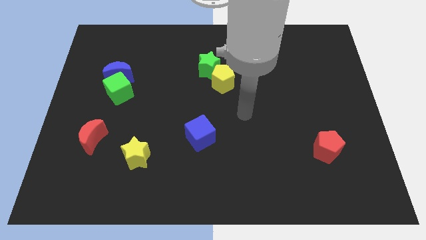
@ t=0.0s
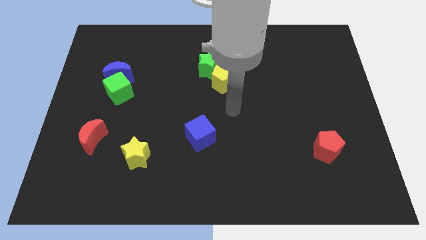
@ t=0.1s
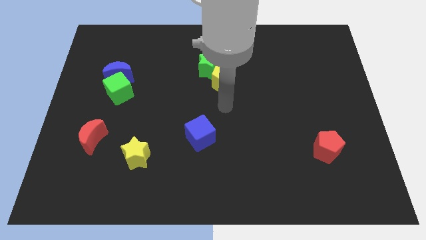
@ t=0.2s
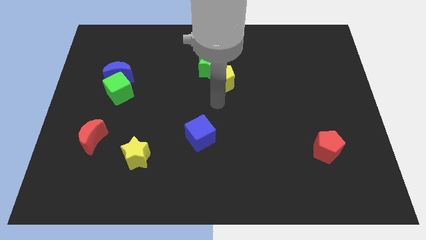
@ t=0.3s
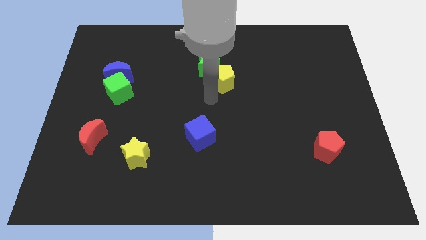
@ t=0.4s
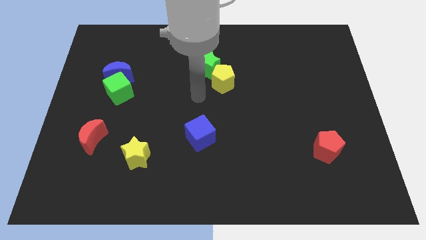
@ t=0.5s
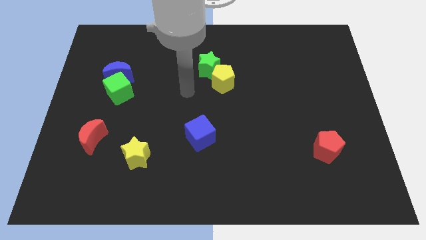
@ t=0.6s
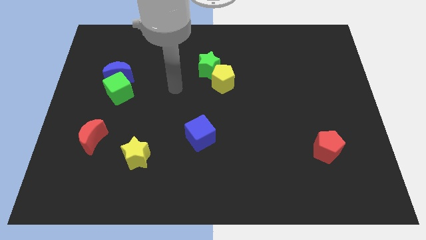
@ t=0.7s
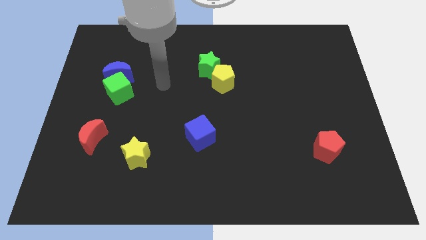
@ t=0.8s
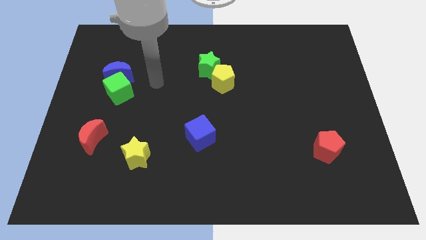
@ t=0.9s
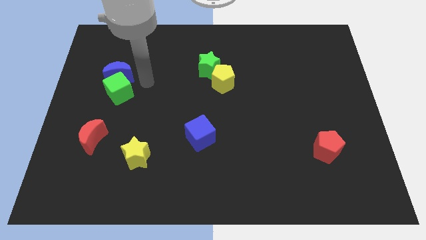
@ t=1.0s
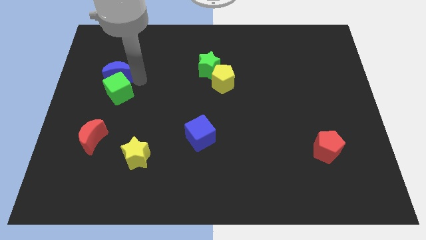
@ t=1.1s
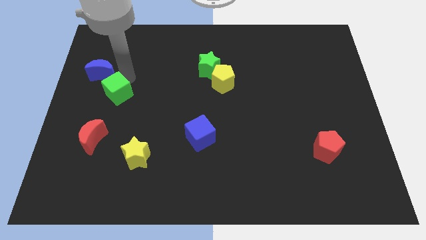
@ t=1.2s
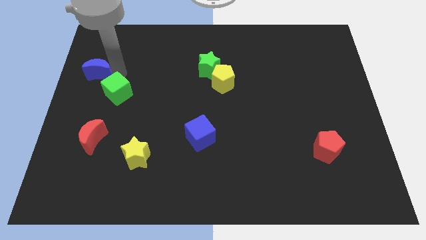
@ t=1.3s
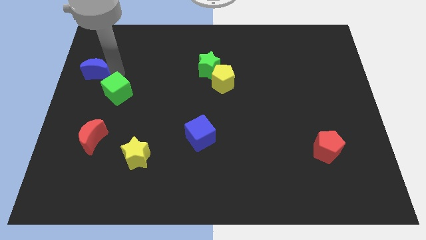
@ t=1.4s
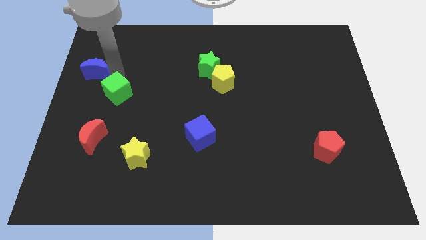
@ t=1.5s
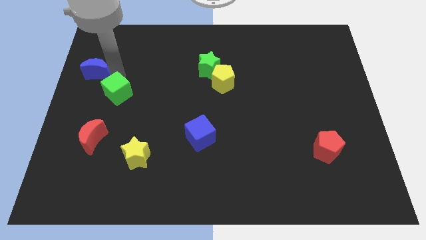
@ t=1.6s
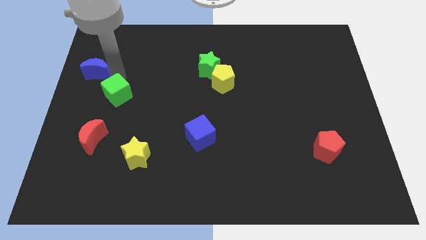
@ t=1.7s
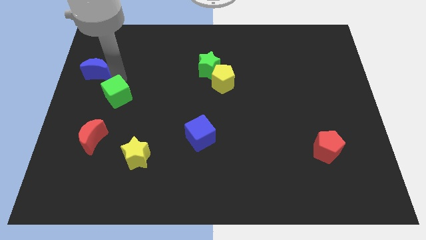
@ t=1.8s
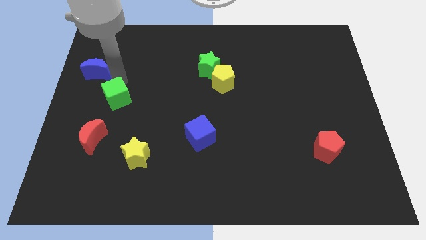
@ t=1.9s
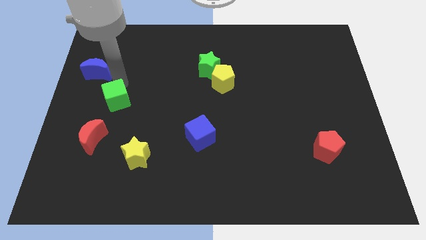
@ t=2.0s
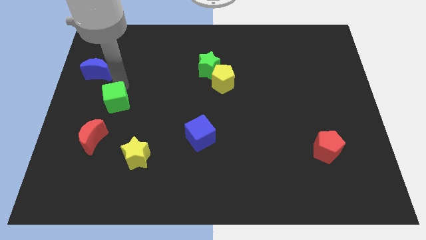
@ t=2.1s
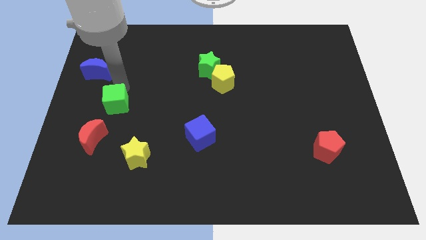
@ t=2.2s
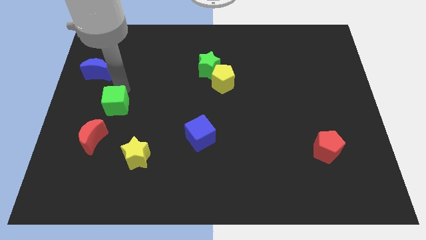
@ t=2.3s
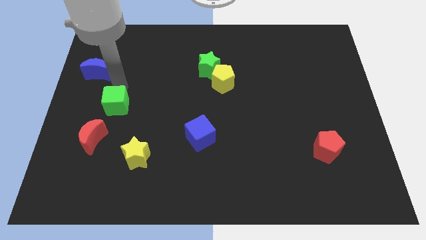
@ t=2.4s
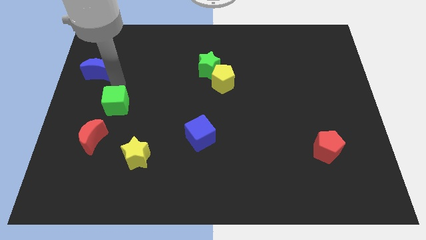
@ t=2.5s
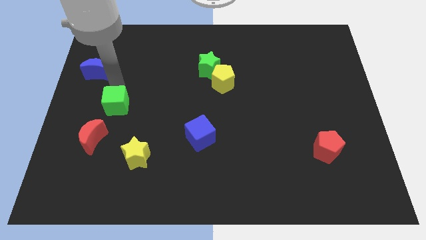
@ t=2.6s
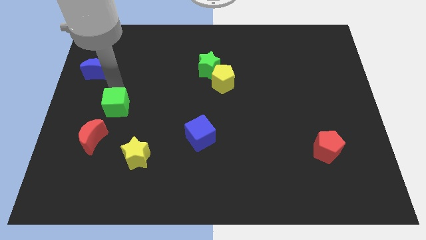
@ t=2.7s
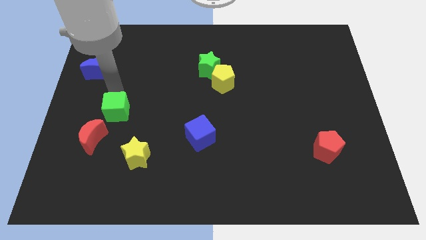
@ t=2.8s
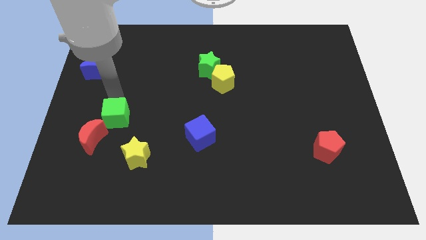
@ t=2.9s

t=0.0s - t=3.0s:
slightly push the green cube down

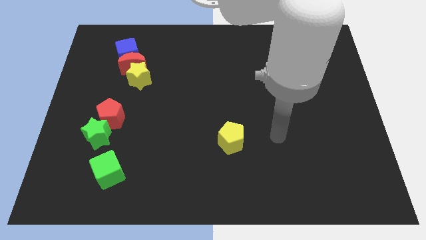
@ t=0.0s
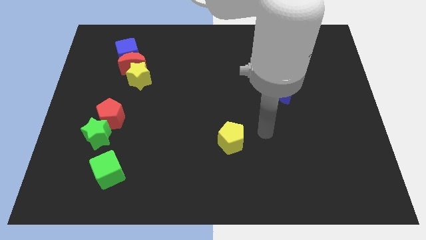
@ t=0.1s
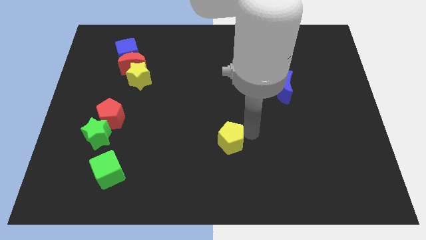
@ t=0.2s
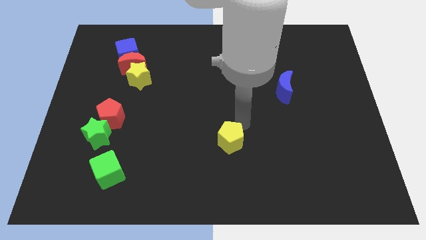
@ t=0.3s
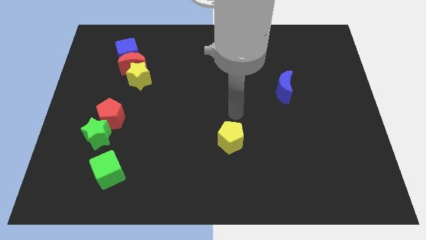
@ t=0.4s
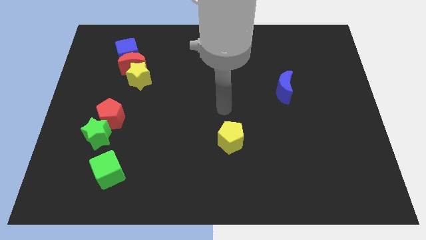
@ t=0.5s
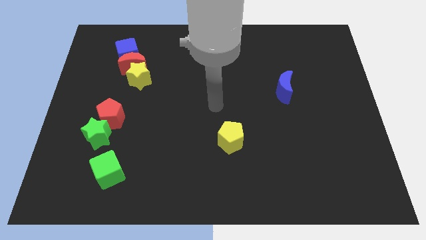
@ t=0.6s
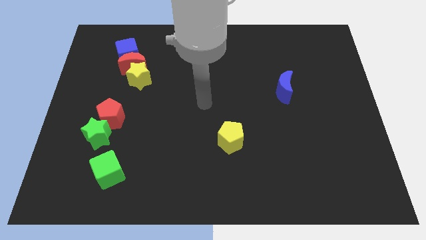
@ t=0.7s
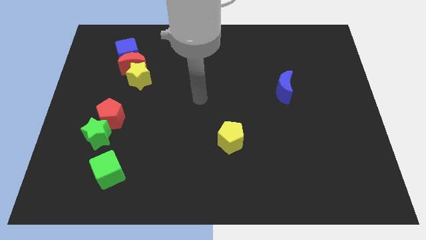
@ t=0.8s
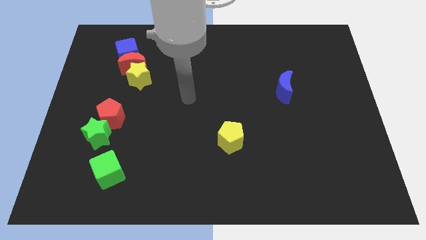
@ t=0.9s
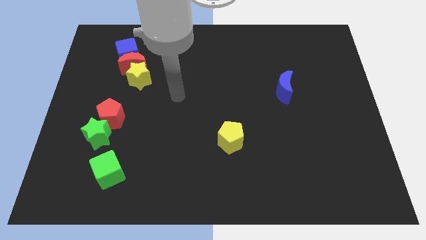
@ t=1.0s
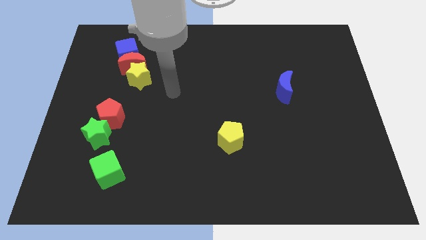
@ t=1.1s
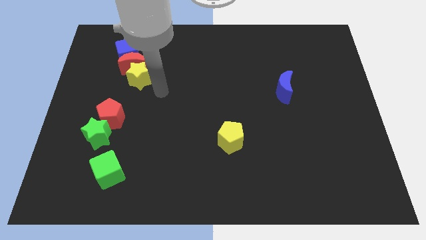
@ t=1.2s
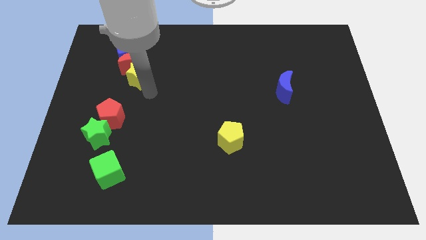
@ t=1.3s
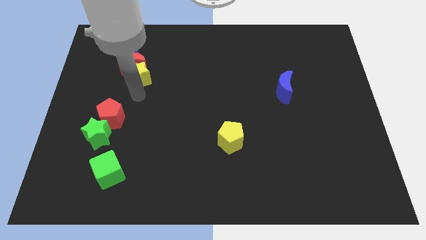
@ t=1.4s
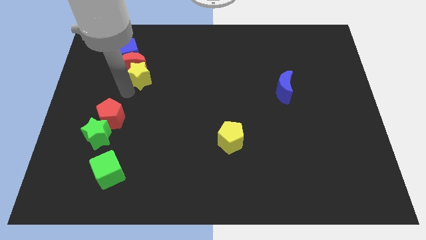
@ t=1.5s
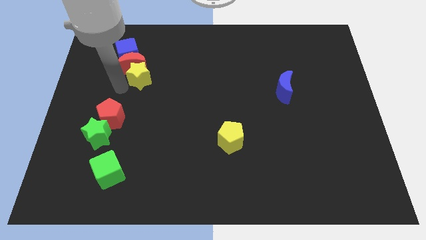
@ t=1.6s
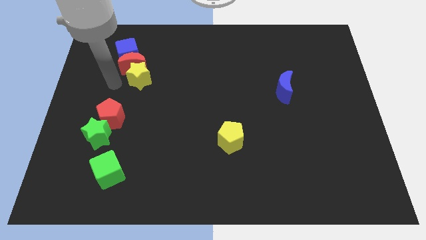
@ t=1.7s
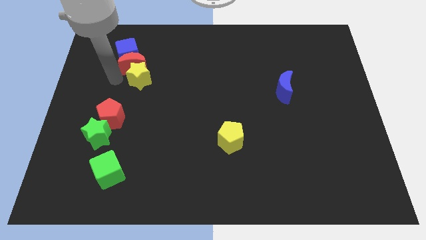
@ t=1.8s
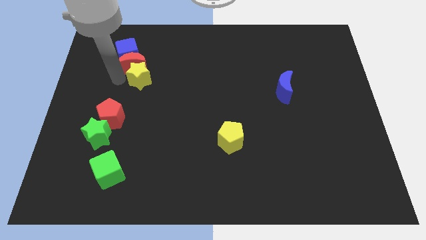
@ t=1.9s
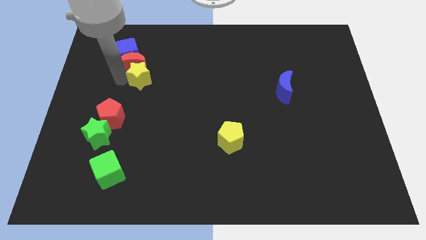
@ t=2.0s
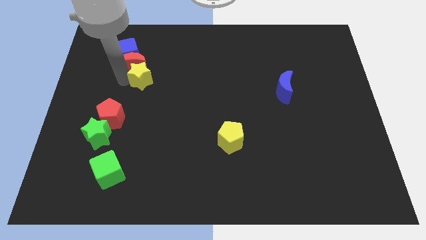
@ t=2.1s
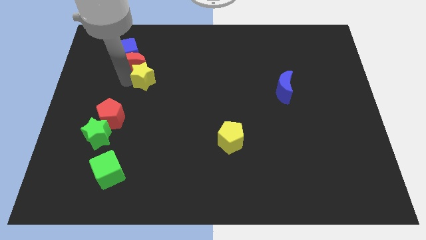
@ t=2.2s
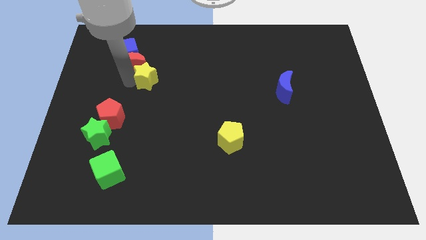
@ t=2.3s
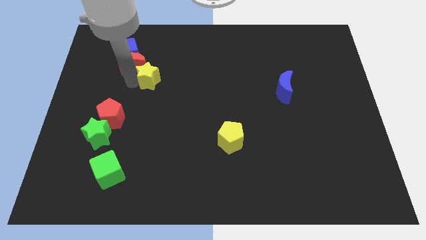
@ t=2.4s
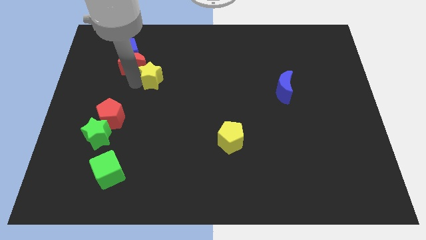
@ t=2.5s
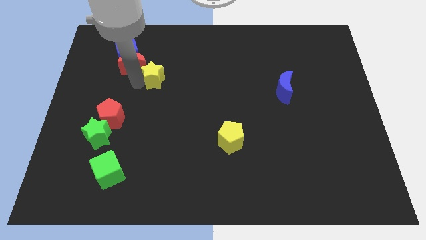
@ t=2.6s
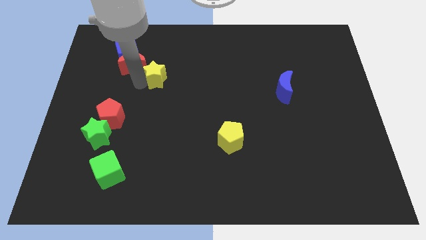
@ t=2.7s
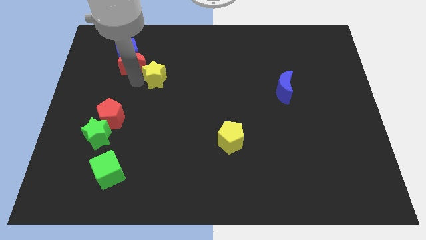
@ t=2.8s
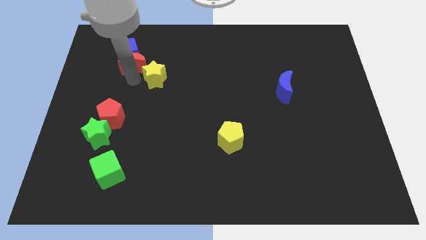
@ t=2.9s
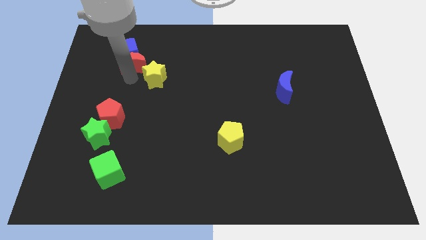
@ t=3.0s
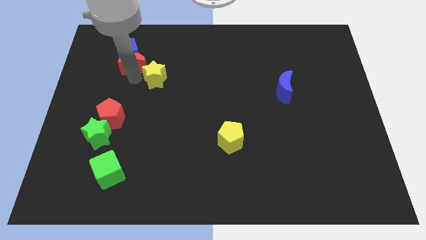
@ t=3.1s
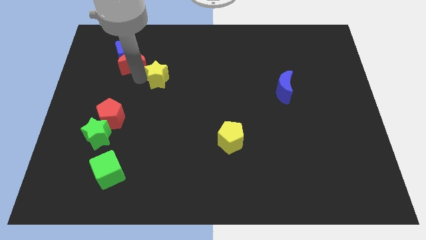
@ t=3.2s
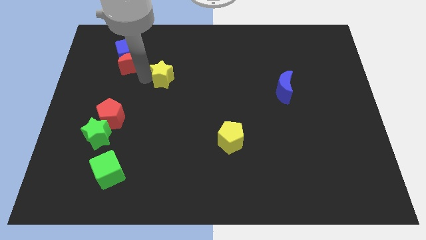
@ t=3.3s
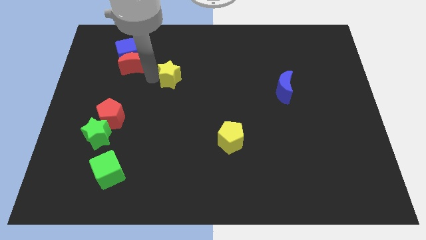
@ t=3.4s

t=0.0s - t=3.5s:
slightly move the yellow star to the right

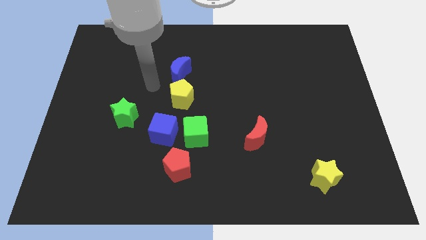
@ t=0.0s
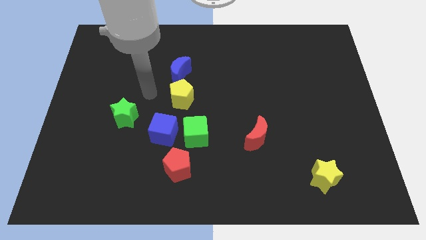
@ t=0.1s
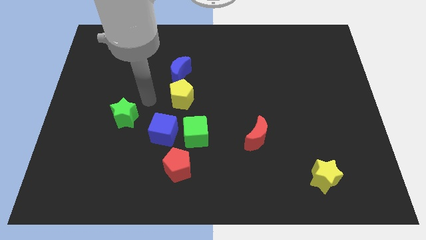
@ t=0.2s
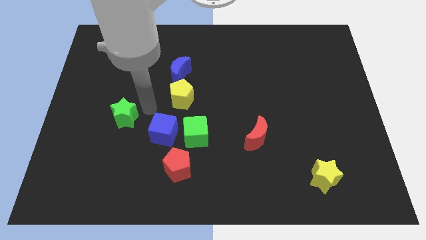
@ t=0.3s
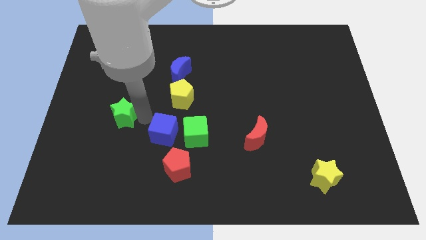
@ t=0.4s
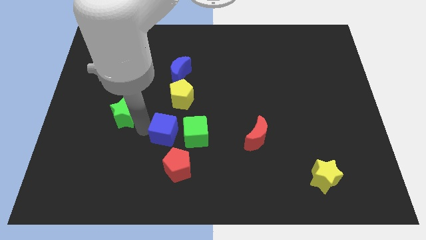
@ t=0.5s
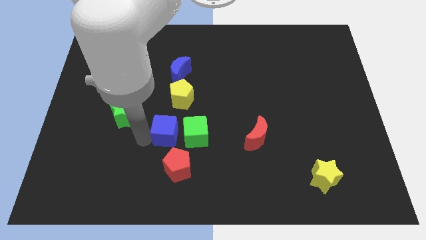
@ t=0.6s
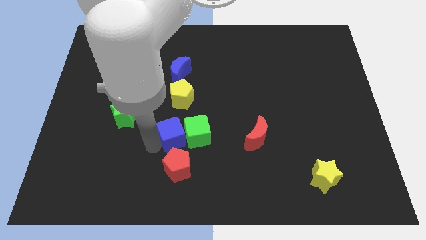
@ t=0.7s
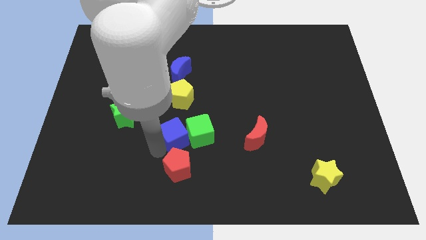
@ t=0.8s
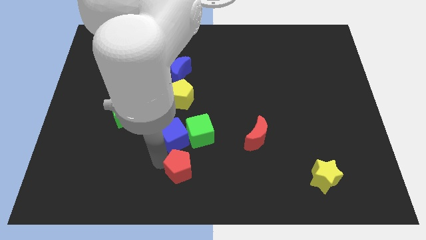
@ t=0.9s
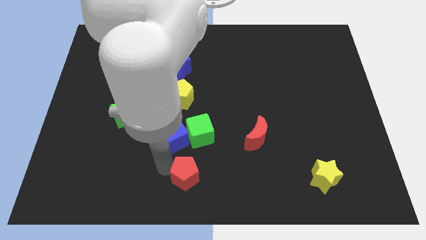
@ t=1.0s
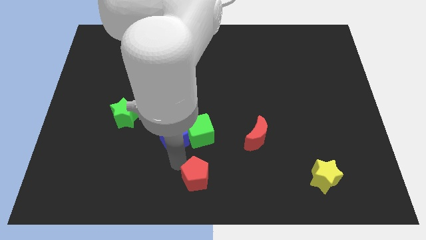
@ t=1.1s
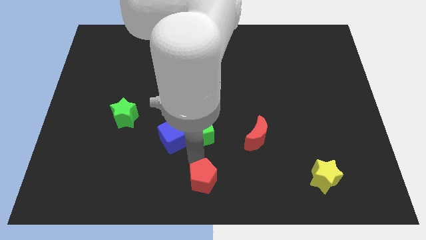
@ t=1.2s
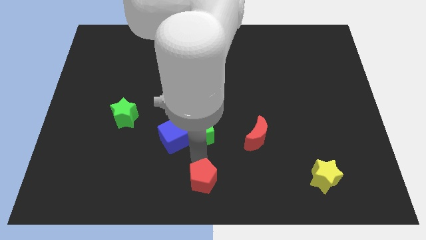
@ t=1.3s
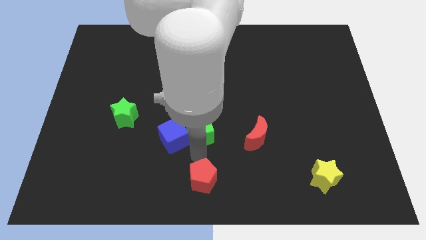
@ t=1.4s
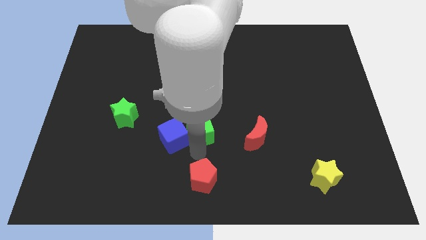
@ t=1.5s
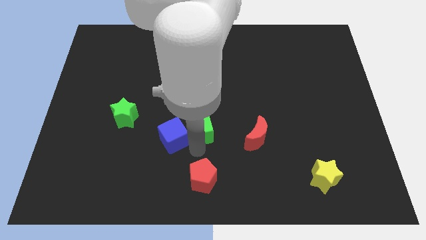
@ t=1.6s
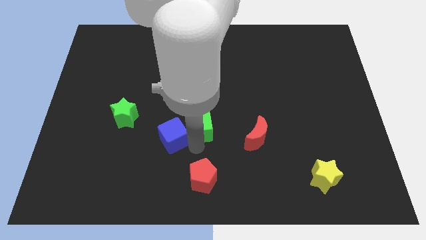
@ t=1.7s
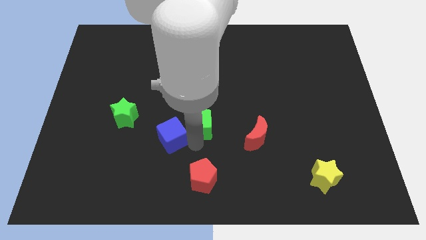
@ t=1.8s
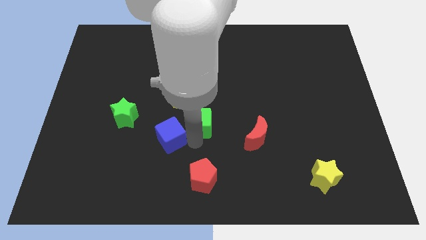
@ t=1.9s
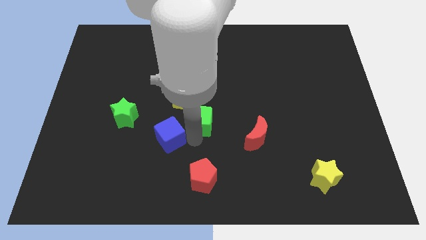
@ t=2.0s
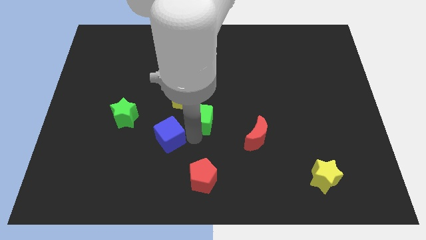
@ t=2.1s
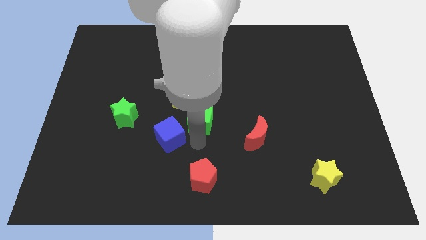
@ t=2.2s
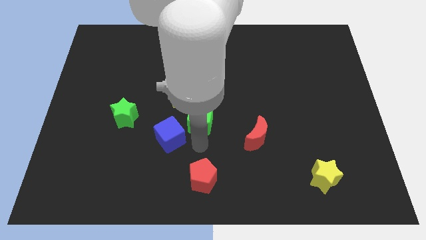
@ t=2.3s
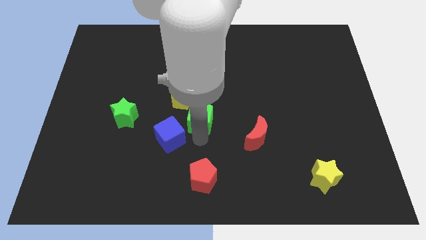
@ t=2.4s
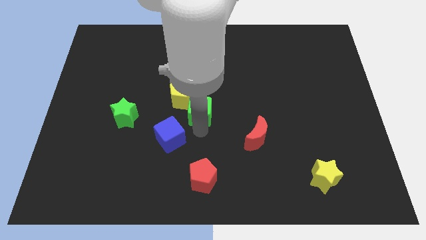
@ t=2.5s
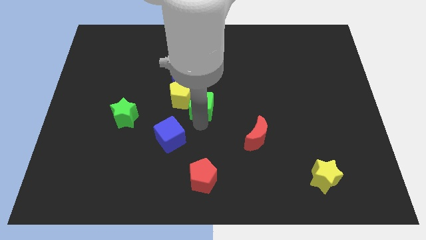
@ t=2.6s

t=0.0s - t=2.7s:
slightly slide the green cube upwards
